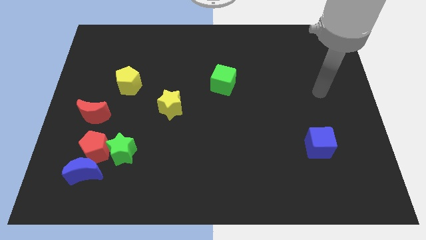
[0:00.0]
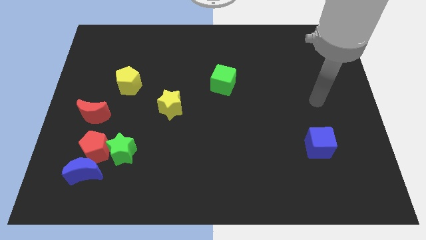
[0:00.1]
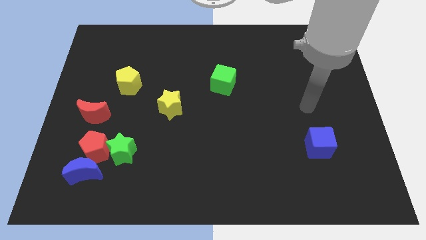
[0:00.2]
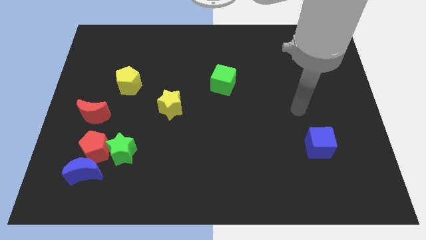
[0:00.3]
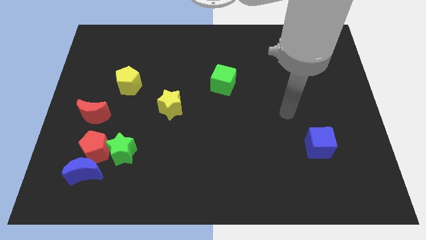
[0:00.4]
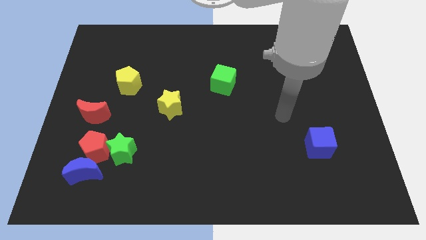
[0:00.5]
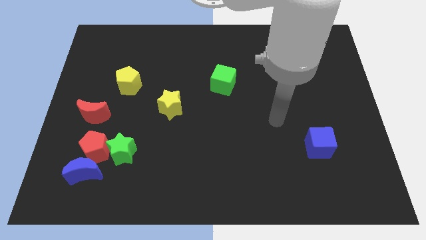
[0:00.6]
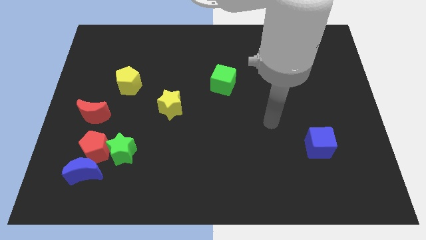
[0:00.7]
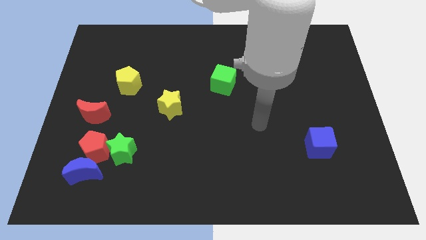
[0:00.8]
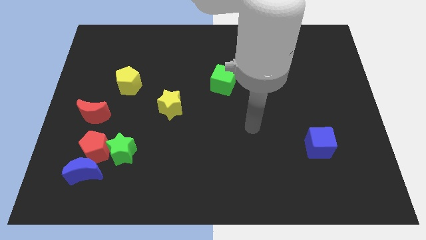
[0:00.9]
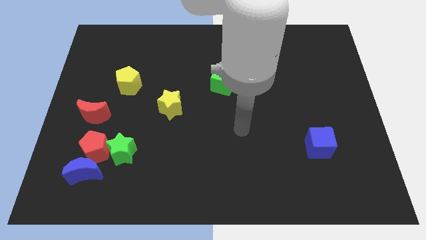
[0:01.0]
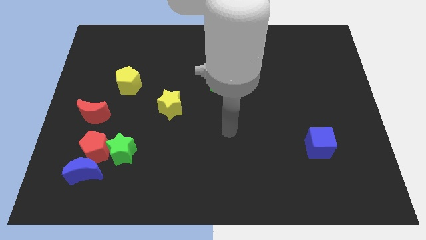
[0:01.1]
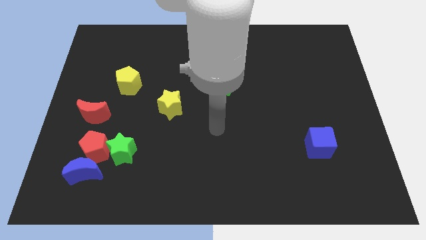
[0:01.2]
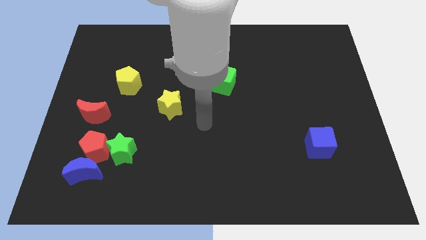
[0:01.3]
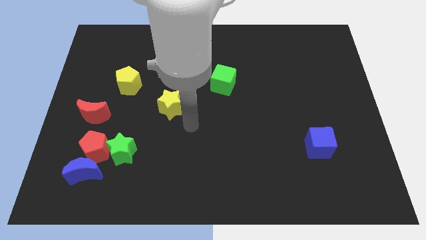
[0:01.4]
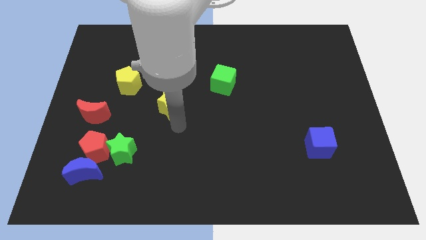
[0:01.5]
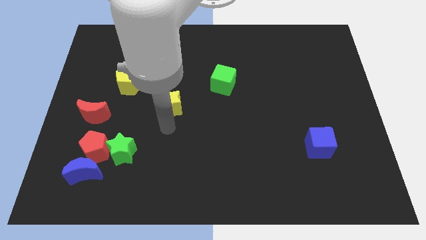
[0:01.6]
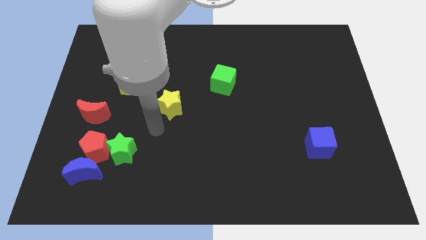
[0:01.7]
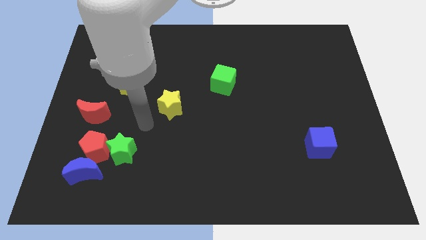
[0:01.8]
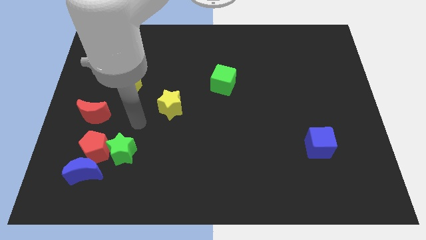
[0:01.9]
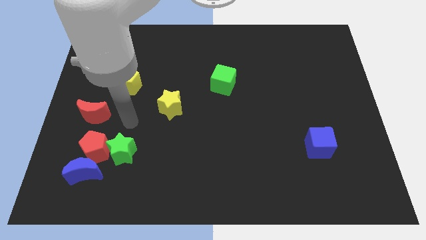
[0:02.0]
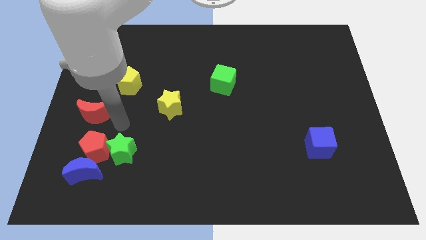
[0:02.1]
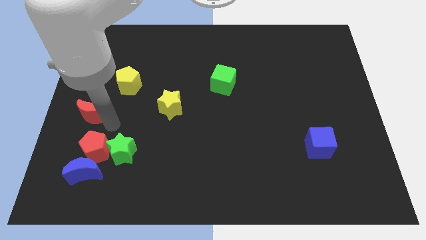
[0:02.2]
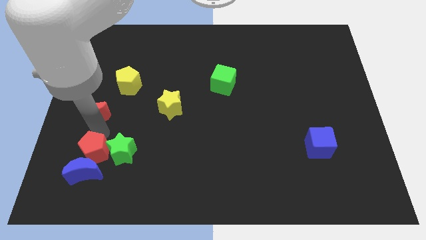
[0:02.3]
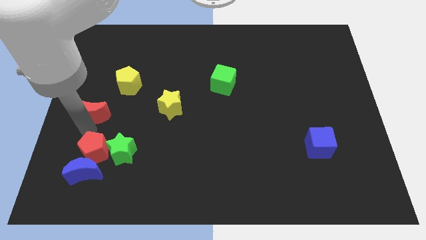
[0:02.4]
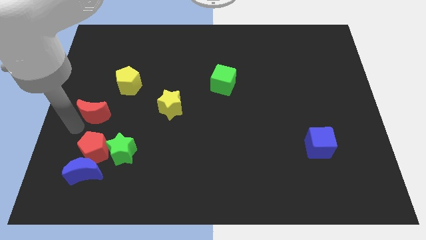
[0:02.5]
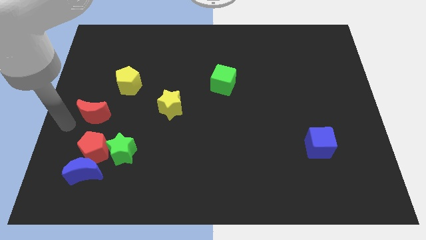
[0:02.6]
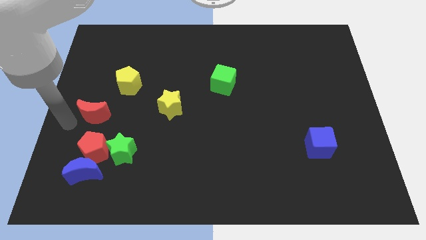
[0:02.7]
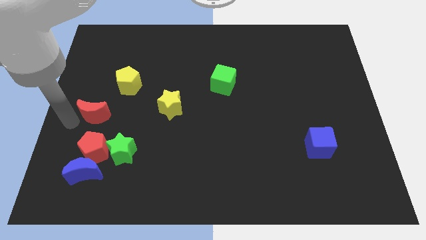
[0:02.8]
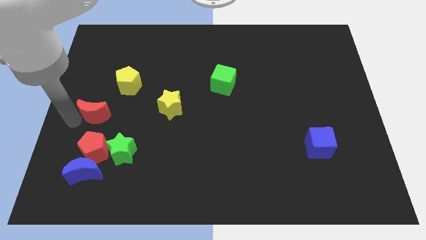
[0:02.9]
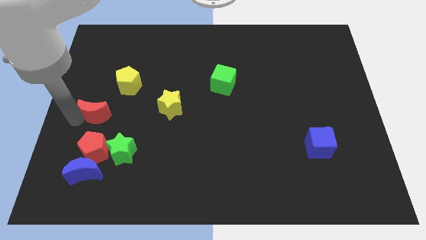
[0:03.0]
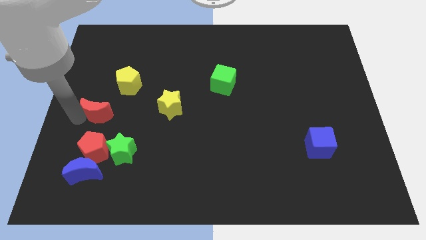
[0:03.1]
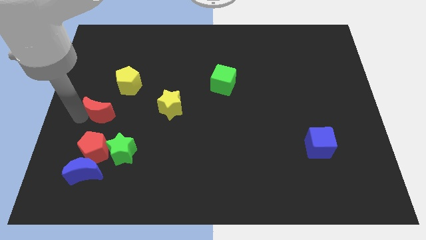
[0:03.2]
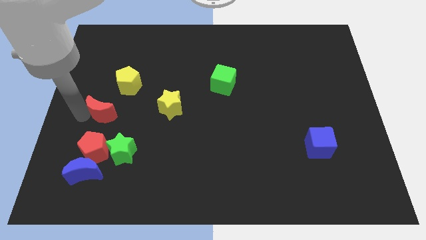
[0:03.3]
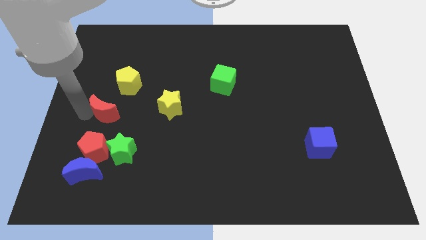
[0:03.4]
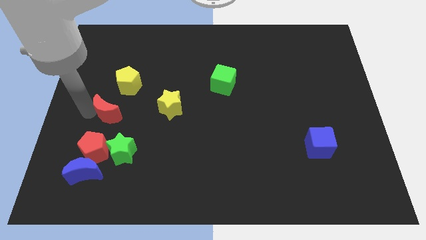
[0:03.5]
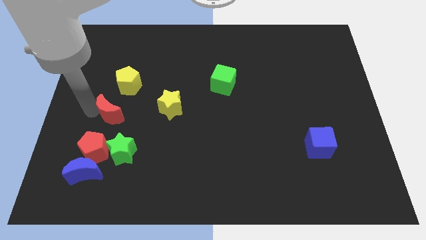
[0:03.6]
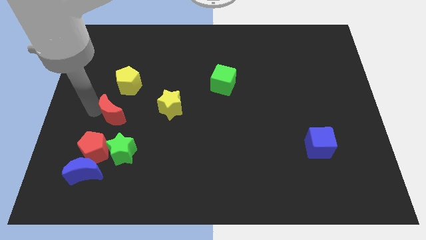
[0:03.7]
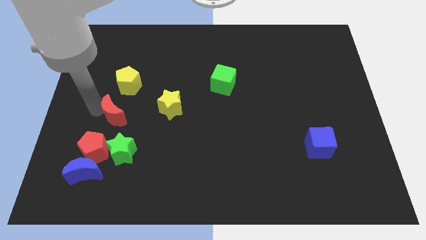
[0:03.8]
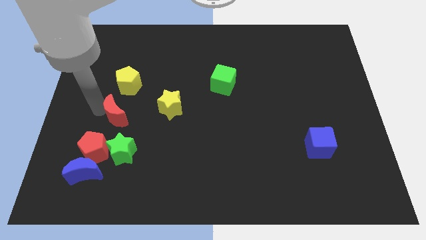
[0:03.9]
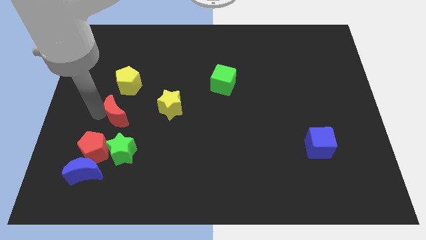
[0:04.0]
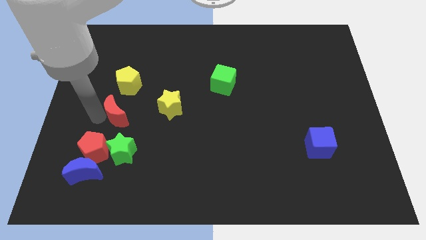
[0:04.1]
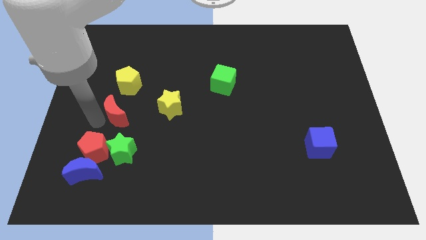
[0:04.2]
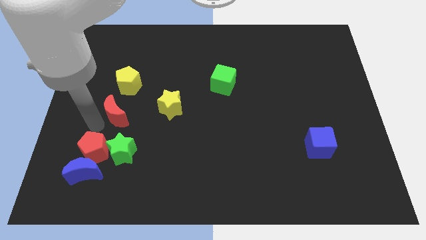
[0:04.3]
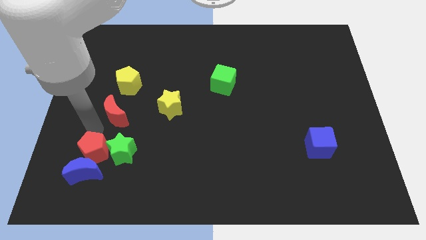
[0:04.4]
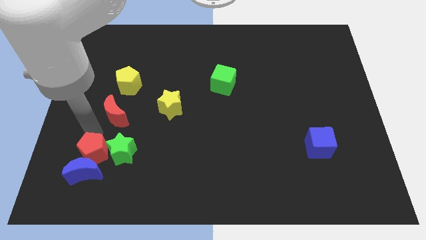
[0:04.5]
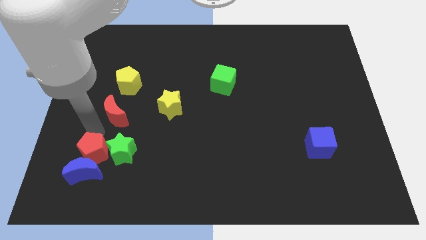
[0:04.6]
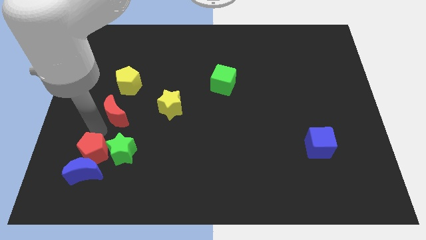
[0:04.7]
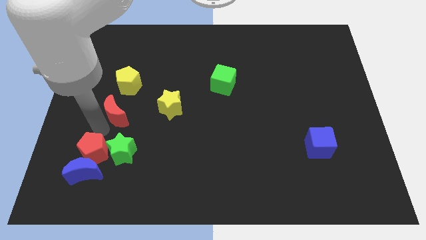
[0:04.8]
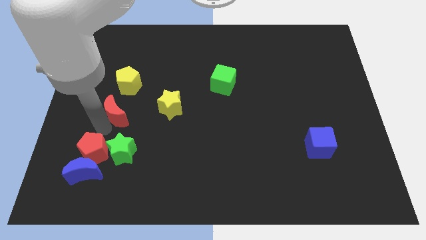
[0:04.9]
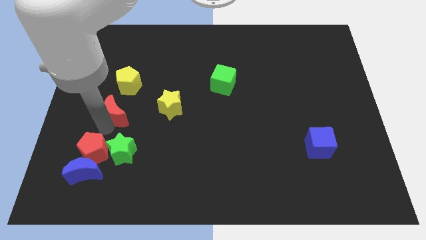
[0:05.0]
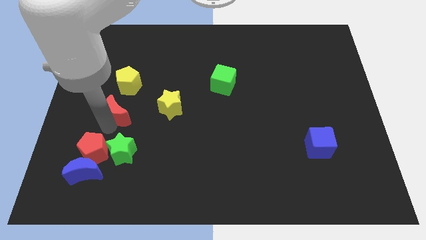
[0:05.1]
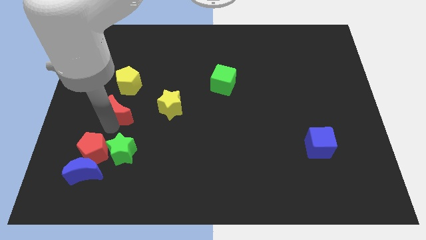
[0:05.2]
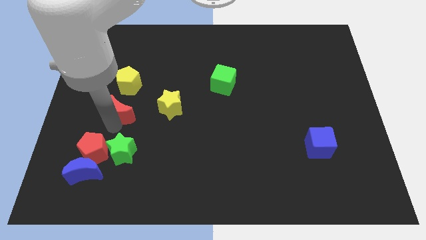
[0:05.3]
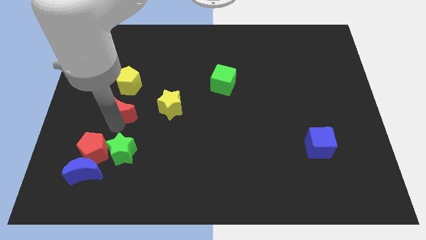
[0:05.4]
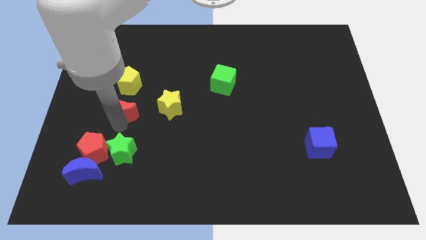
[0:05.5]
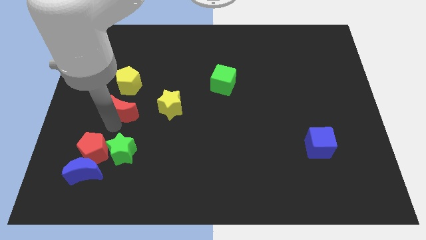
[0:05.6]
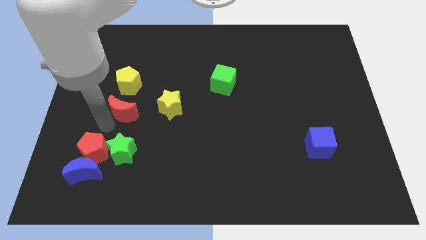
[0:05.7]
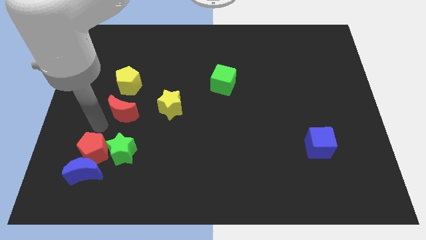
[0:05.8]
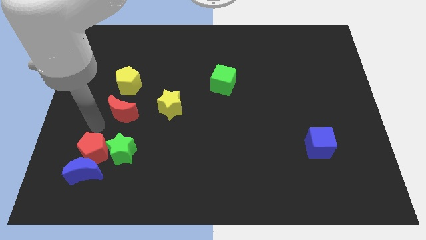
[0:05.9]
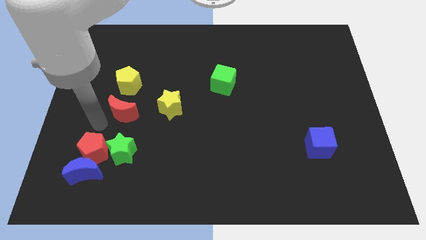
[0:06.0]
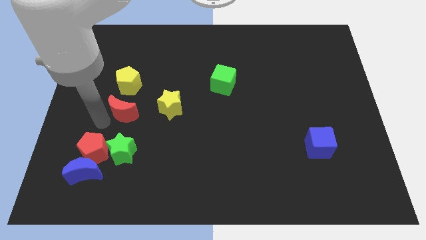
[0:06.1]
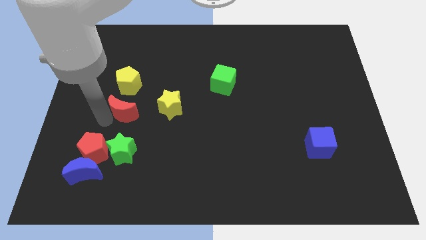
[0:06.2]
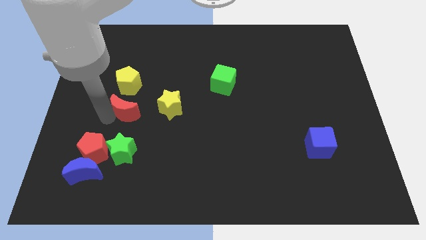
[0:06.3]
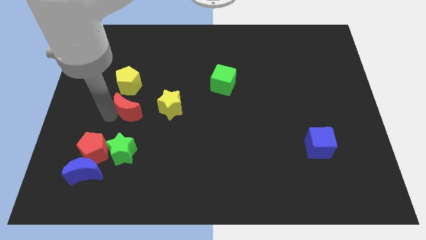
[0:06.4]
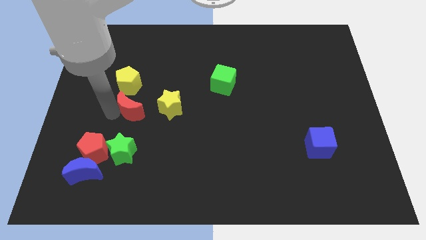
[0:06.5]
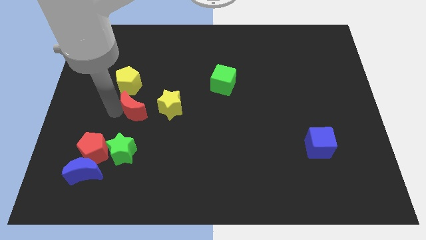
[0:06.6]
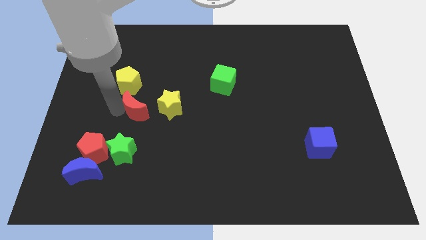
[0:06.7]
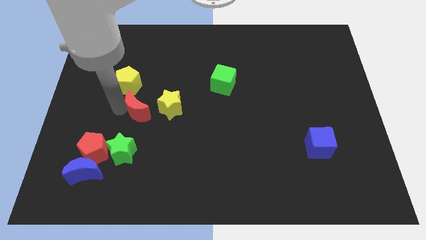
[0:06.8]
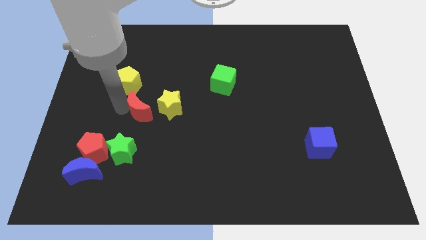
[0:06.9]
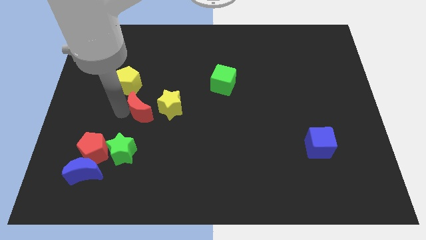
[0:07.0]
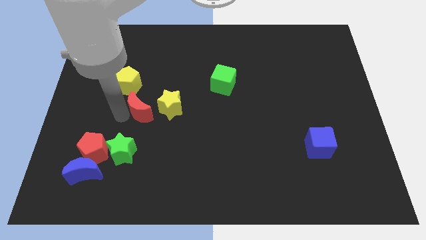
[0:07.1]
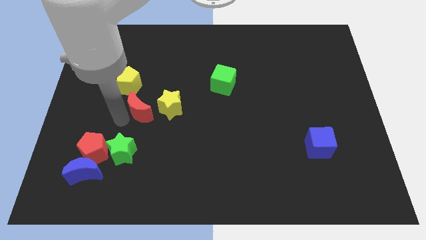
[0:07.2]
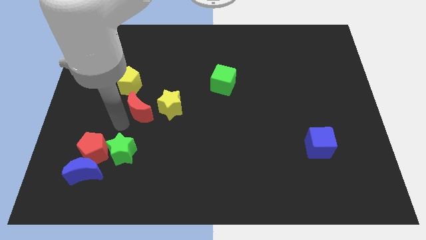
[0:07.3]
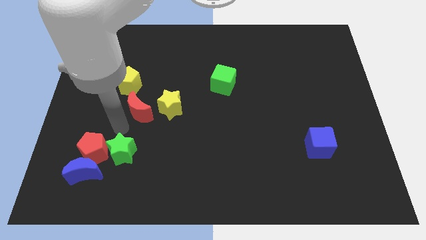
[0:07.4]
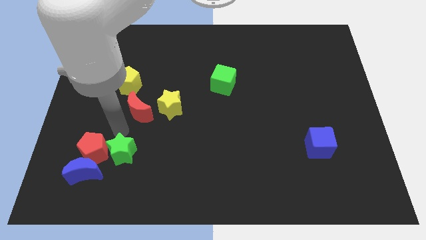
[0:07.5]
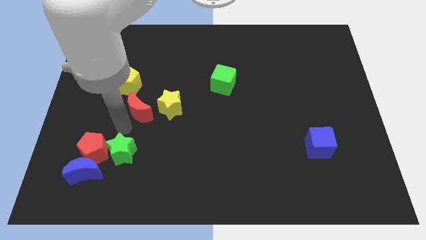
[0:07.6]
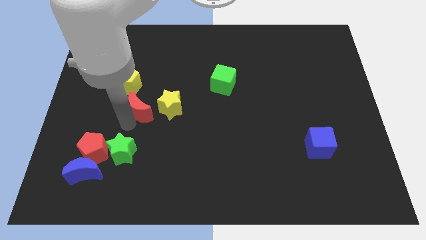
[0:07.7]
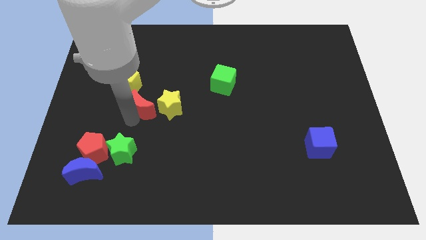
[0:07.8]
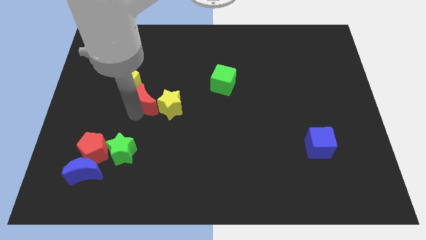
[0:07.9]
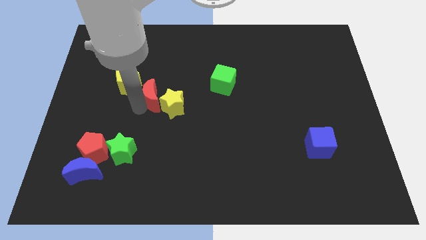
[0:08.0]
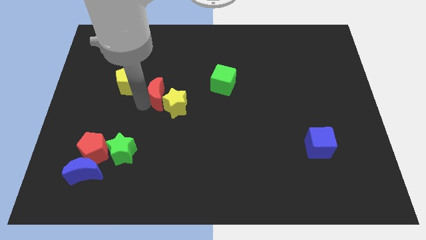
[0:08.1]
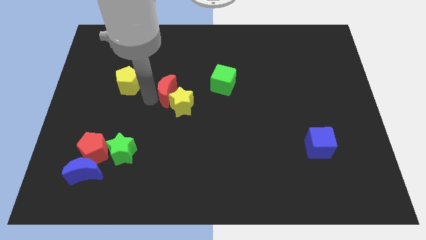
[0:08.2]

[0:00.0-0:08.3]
put the red moon to the middle
